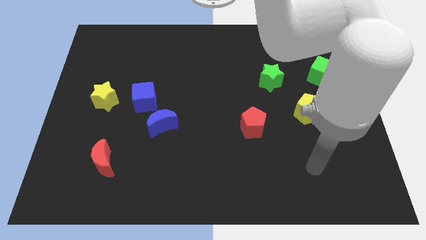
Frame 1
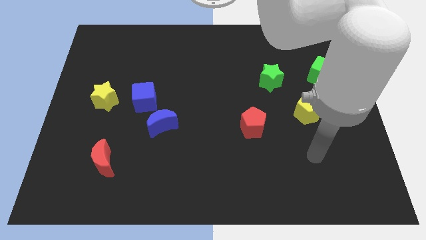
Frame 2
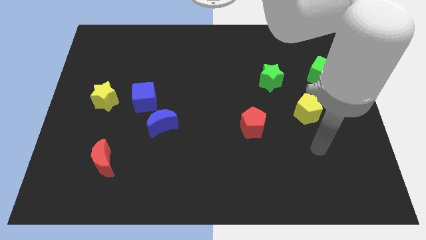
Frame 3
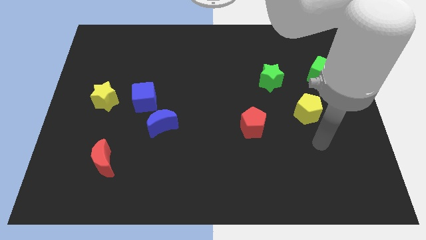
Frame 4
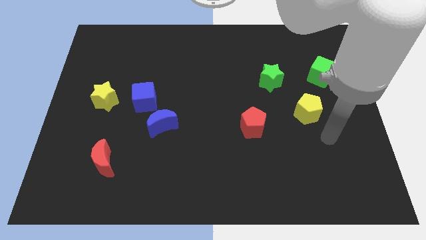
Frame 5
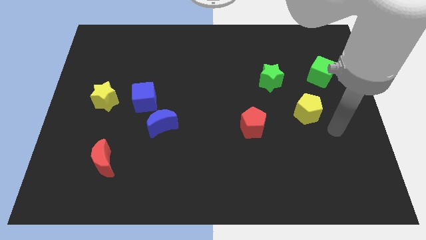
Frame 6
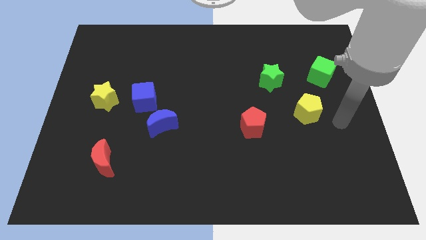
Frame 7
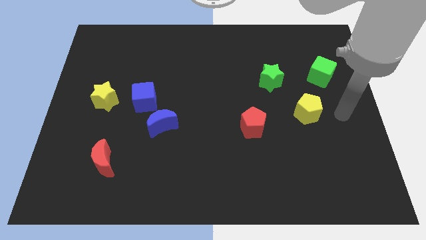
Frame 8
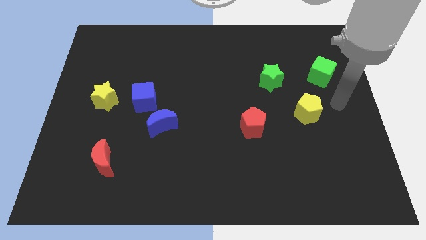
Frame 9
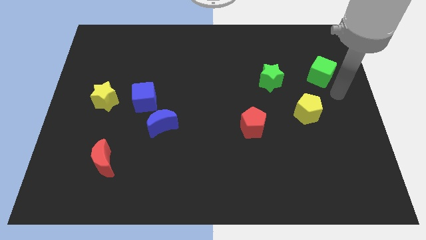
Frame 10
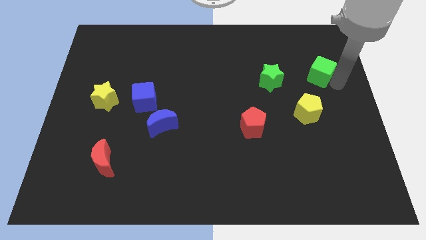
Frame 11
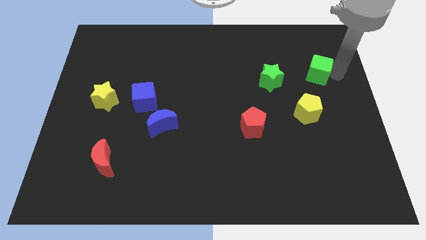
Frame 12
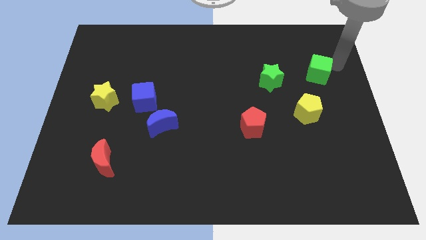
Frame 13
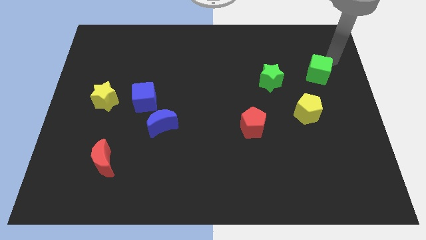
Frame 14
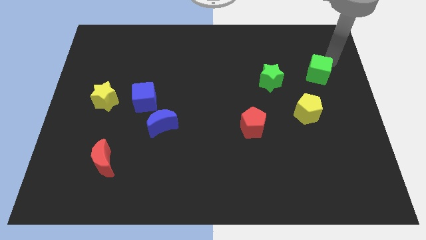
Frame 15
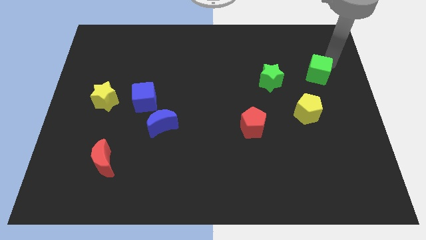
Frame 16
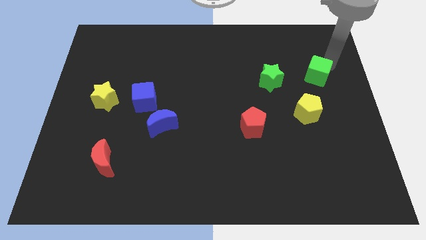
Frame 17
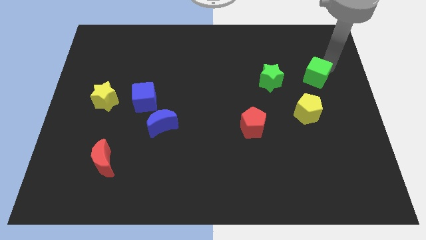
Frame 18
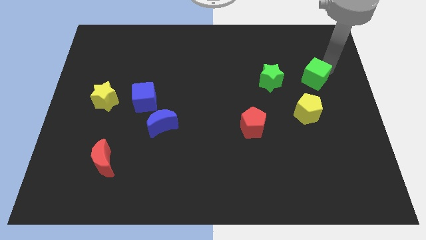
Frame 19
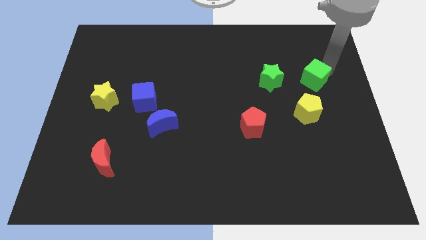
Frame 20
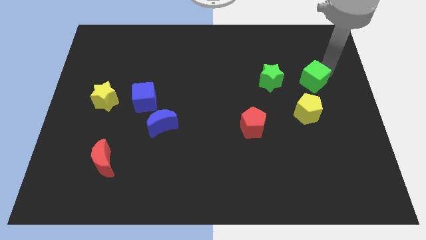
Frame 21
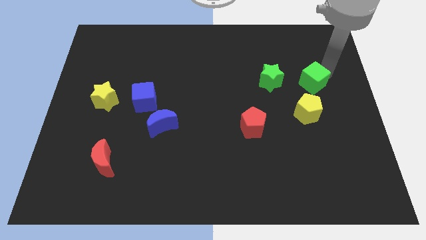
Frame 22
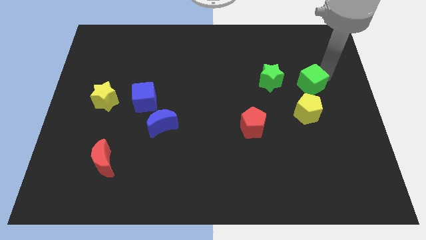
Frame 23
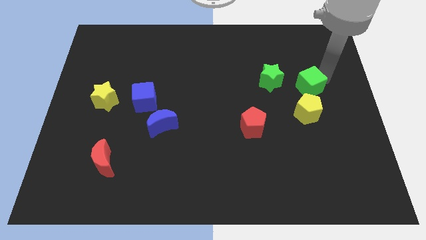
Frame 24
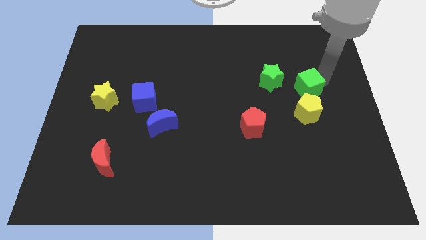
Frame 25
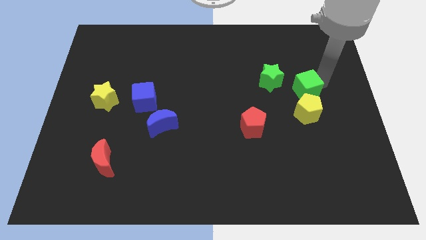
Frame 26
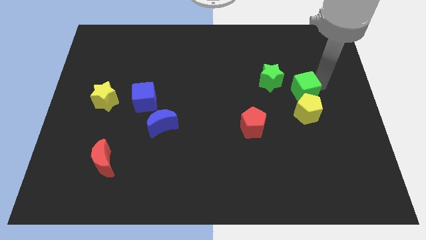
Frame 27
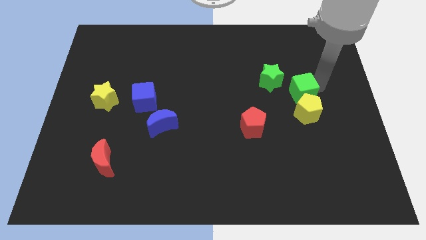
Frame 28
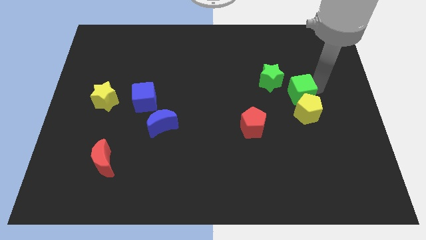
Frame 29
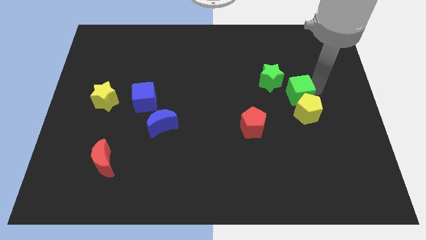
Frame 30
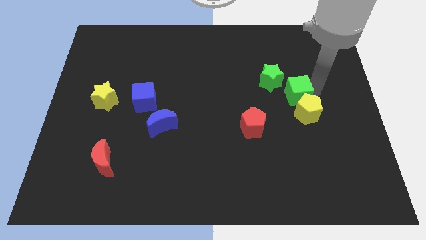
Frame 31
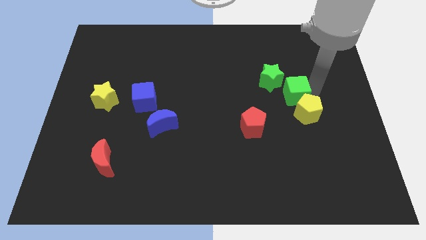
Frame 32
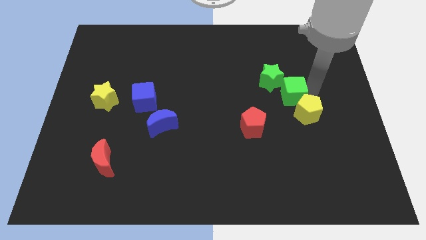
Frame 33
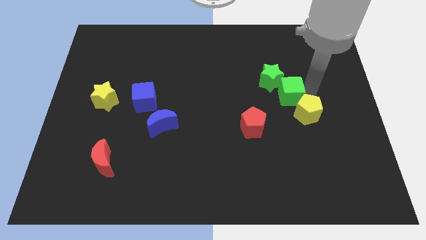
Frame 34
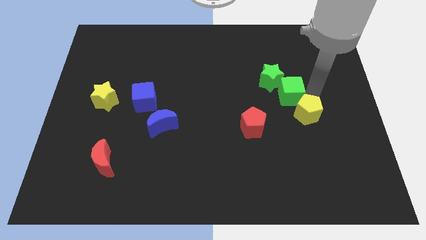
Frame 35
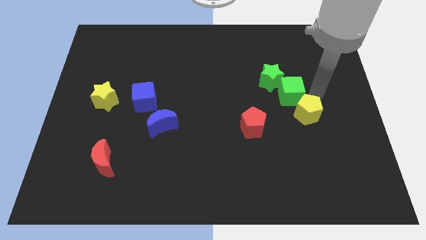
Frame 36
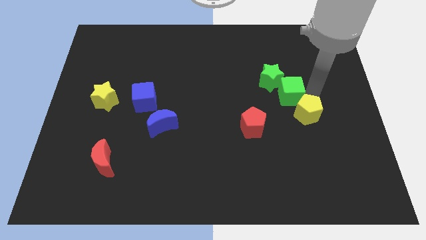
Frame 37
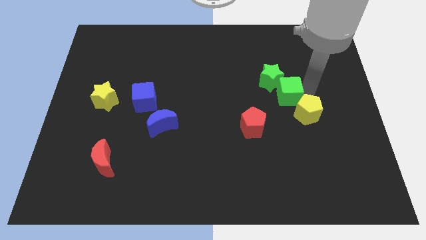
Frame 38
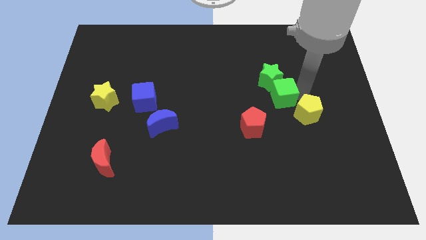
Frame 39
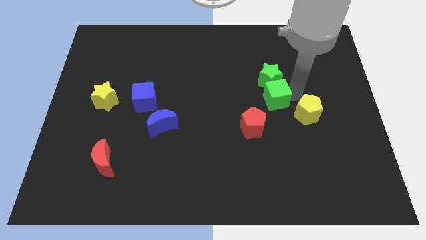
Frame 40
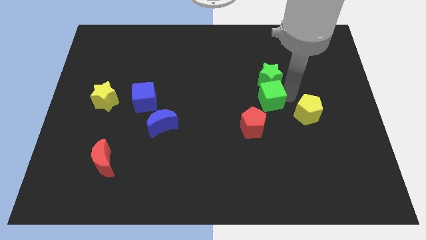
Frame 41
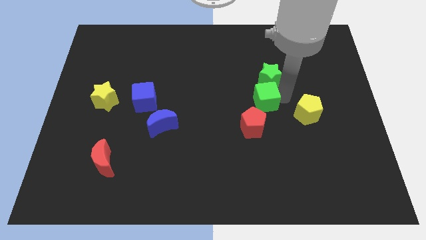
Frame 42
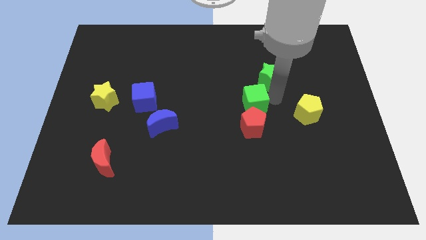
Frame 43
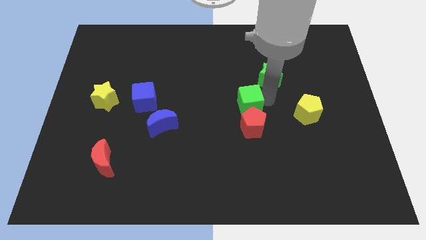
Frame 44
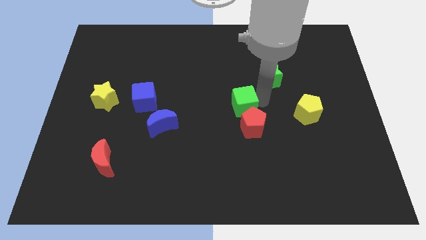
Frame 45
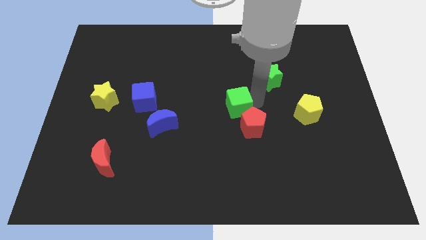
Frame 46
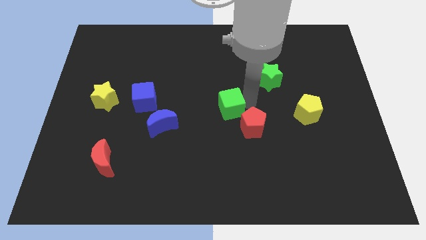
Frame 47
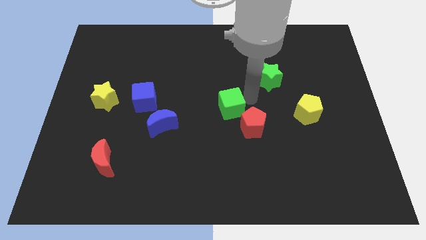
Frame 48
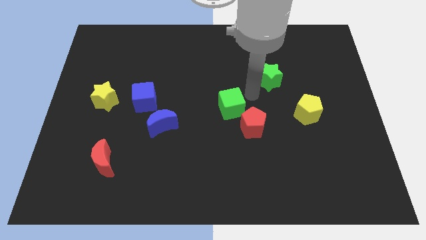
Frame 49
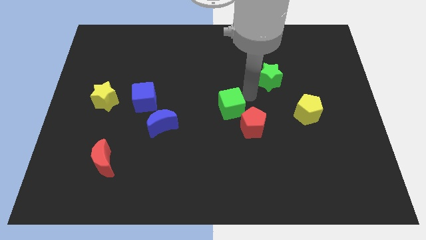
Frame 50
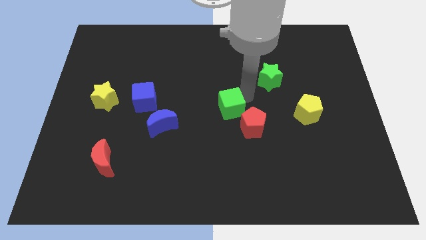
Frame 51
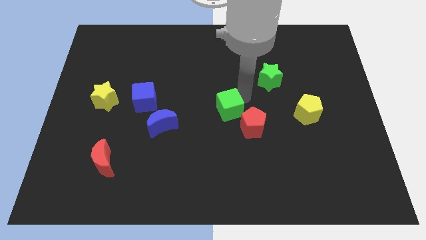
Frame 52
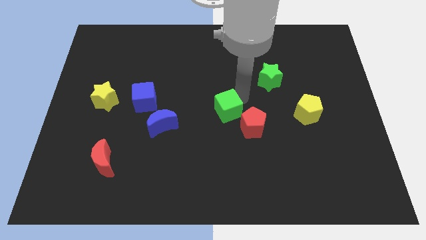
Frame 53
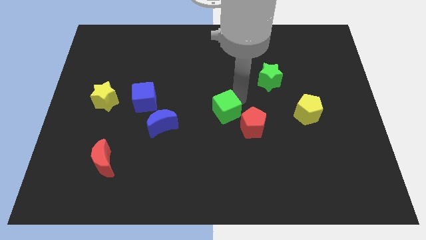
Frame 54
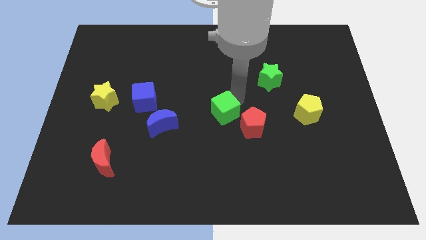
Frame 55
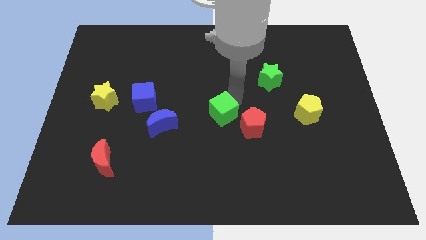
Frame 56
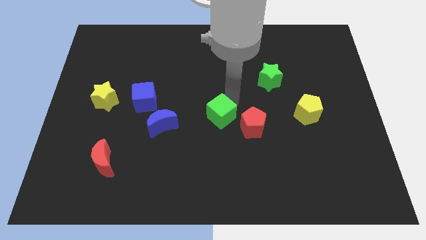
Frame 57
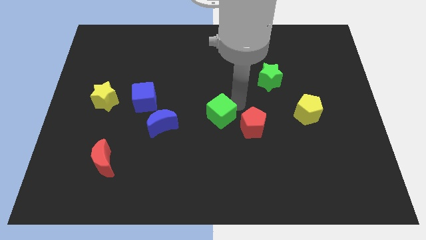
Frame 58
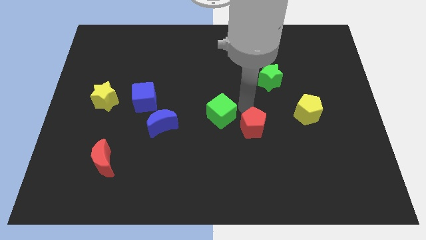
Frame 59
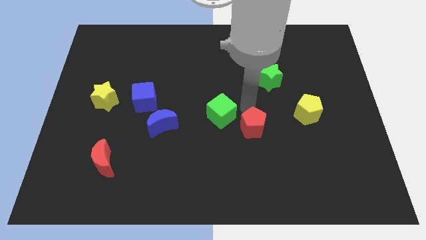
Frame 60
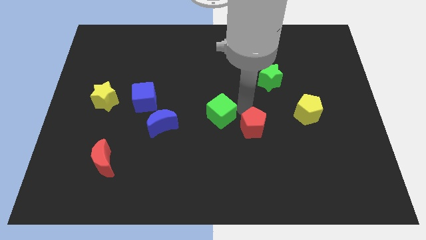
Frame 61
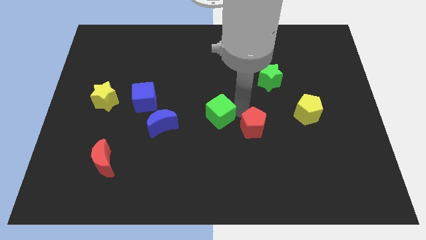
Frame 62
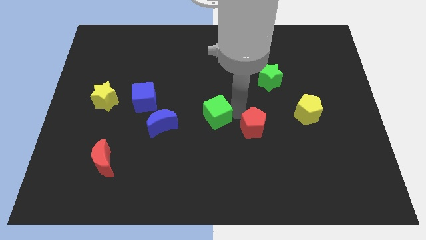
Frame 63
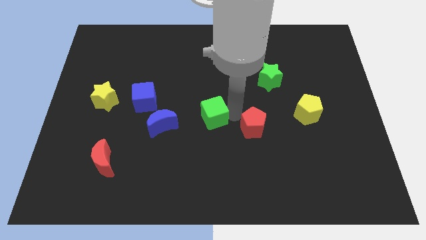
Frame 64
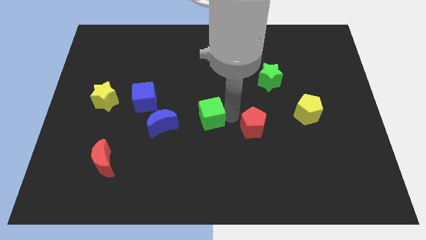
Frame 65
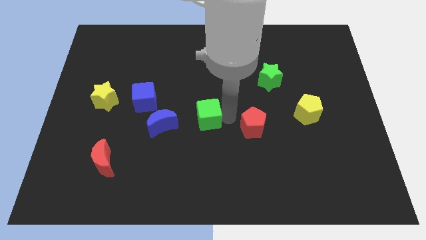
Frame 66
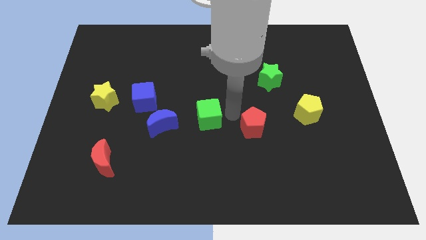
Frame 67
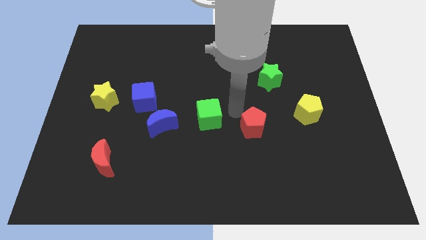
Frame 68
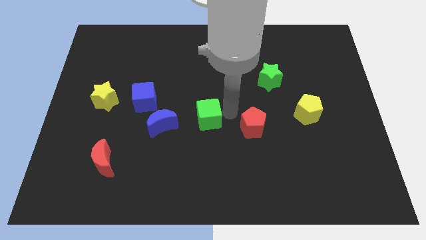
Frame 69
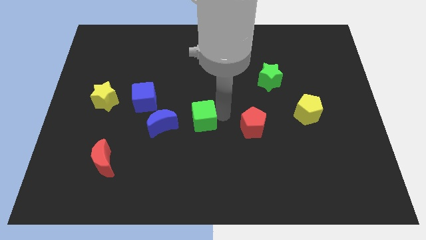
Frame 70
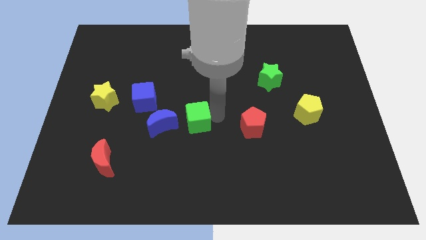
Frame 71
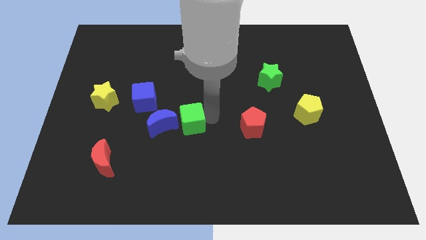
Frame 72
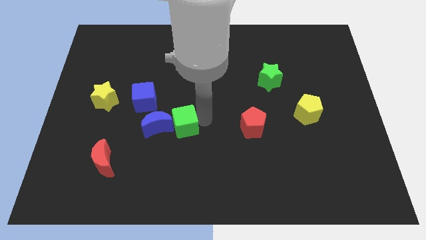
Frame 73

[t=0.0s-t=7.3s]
push the green cube next to the blue moon
